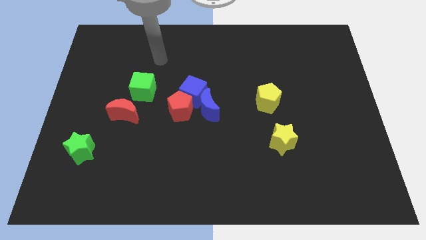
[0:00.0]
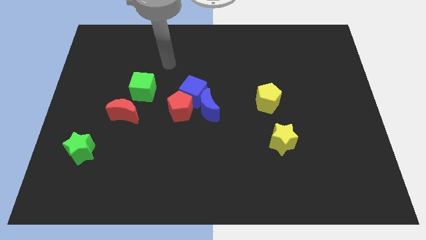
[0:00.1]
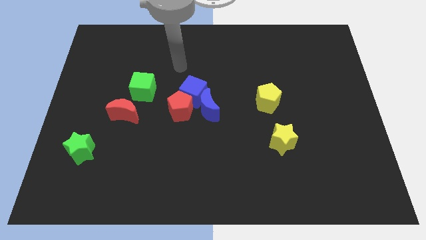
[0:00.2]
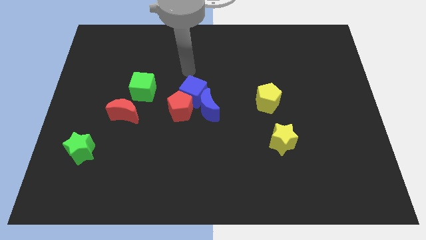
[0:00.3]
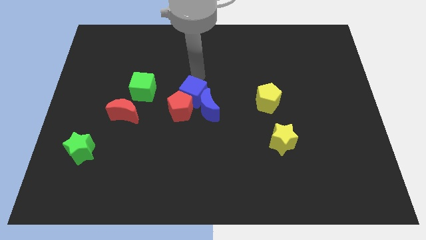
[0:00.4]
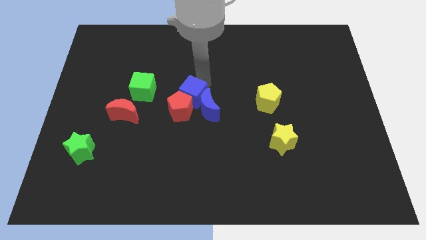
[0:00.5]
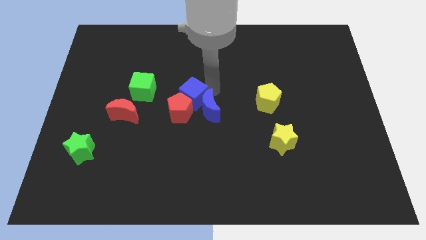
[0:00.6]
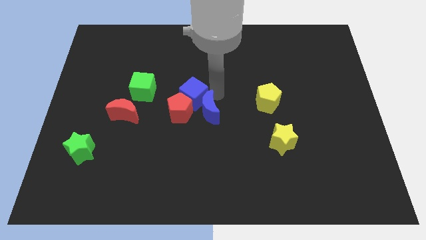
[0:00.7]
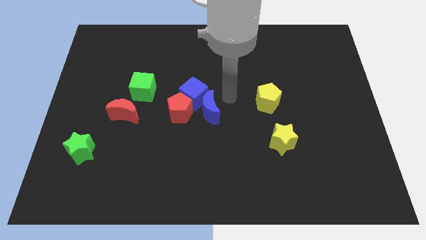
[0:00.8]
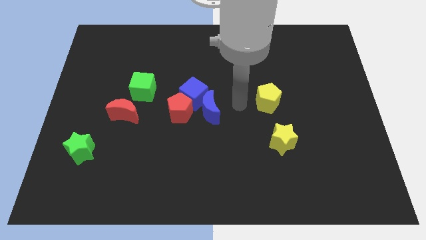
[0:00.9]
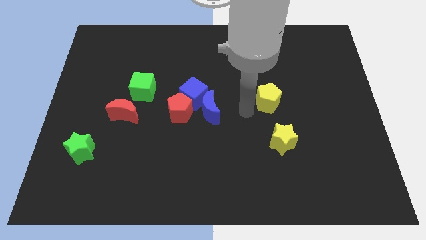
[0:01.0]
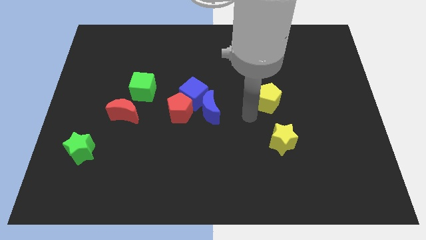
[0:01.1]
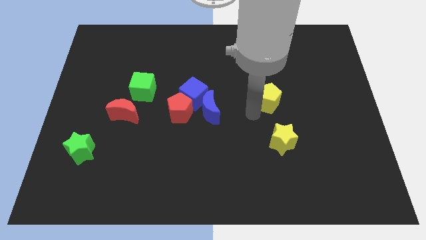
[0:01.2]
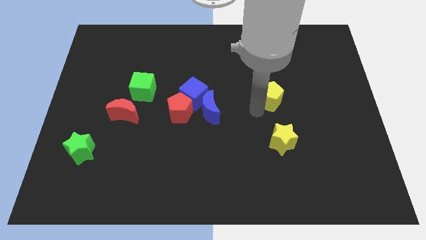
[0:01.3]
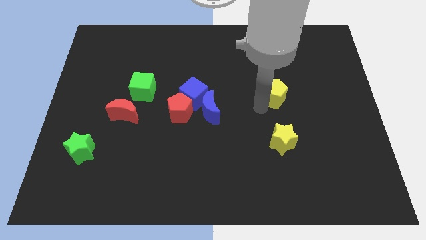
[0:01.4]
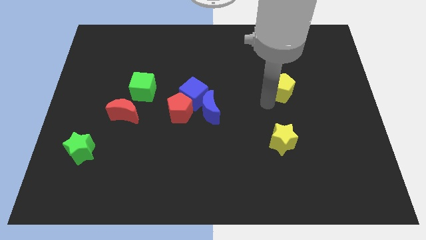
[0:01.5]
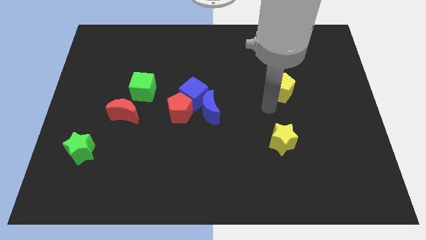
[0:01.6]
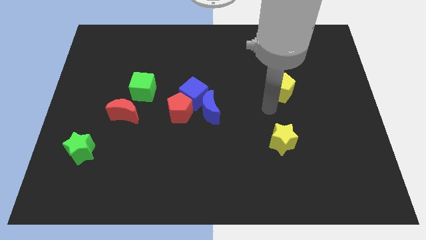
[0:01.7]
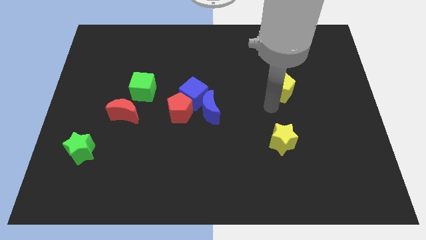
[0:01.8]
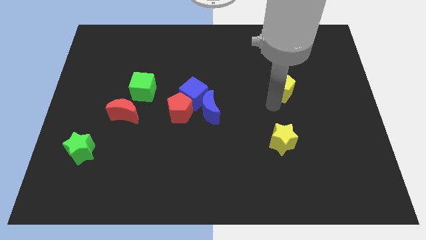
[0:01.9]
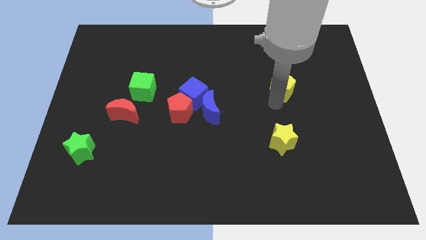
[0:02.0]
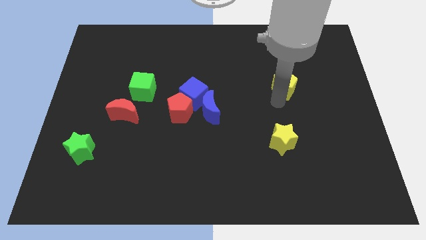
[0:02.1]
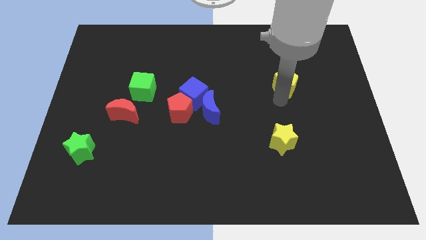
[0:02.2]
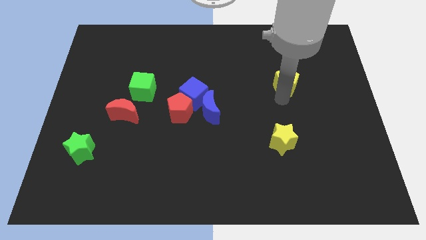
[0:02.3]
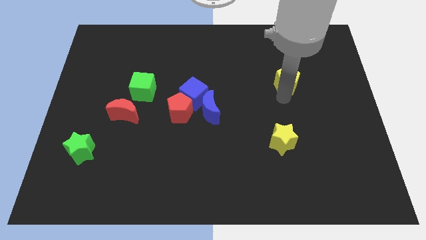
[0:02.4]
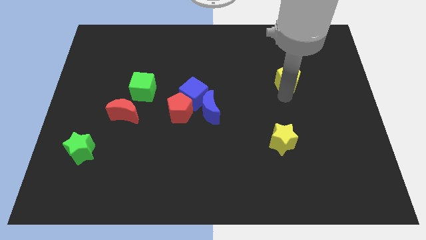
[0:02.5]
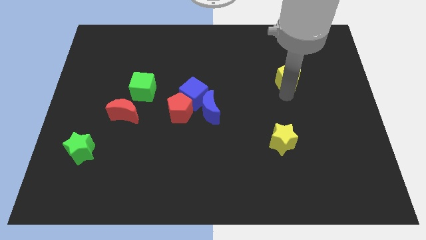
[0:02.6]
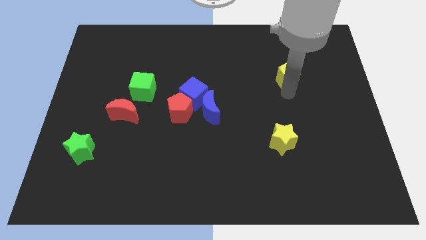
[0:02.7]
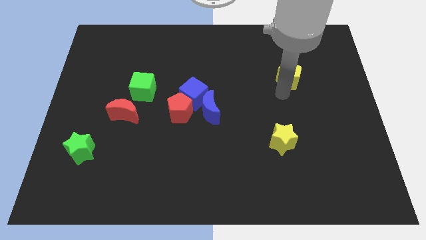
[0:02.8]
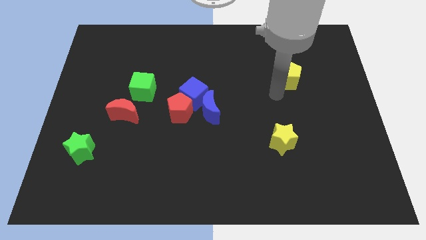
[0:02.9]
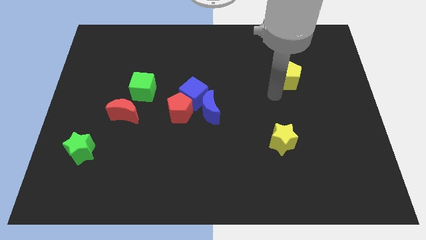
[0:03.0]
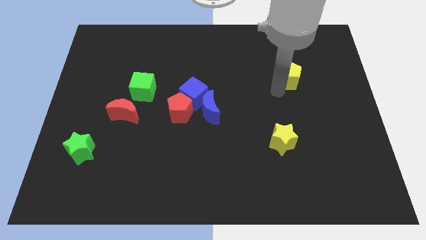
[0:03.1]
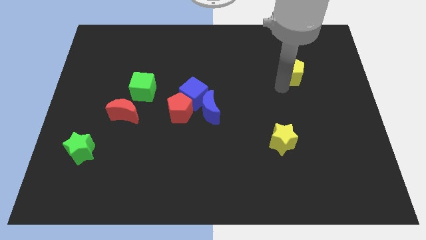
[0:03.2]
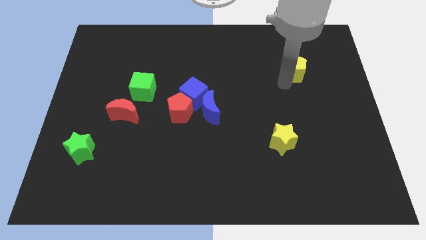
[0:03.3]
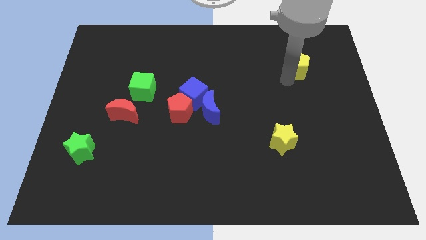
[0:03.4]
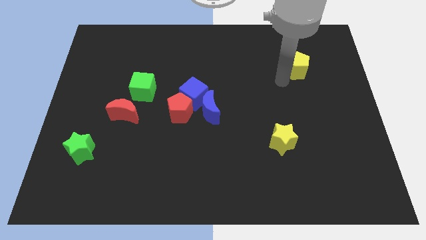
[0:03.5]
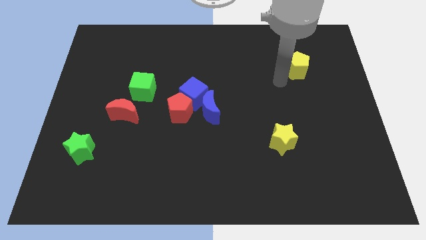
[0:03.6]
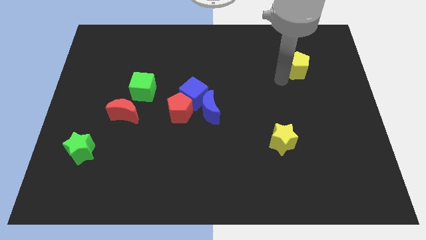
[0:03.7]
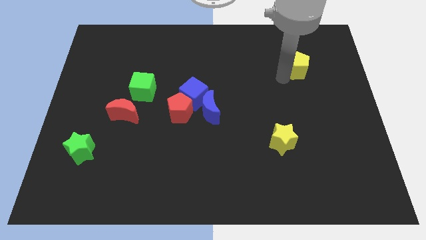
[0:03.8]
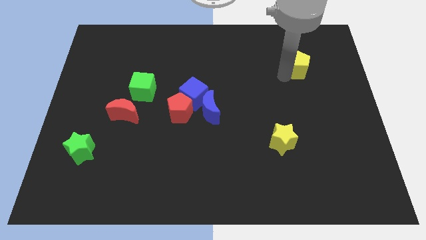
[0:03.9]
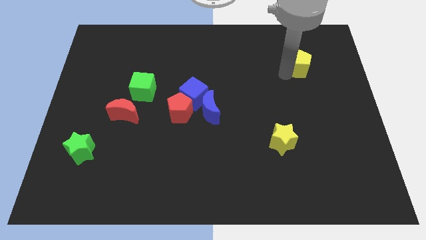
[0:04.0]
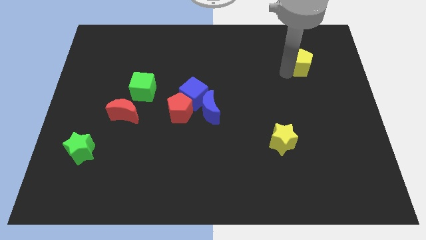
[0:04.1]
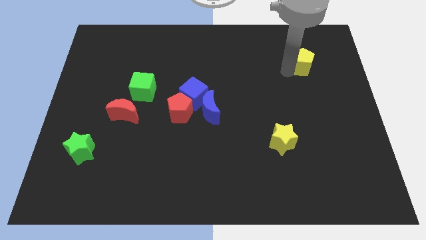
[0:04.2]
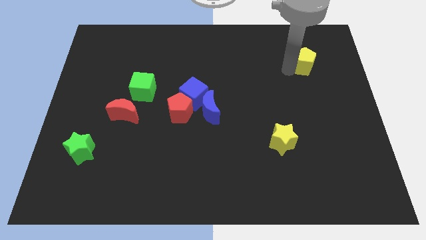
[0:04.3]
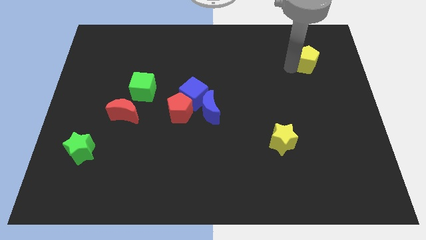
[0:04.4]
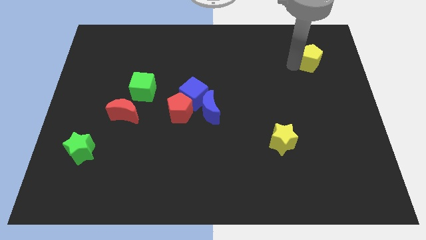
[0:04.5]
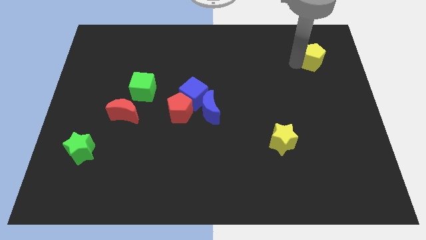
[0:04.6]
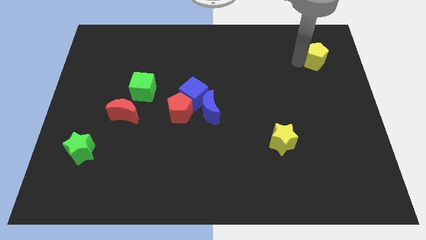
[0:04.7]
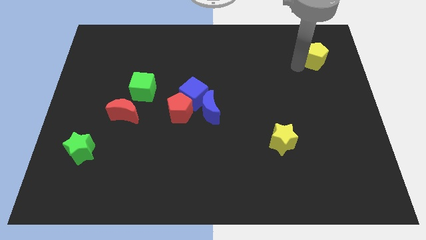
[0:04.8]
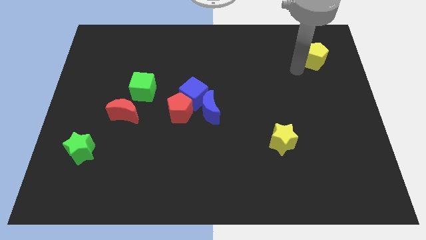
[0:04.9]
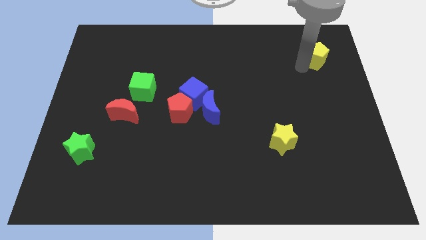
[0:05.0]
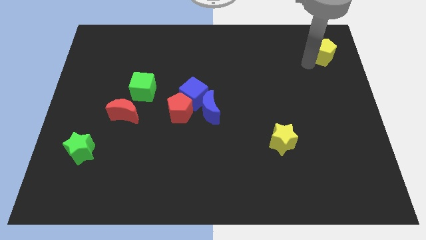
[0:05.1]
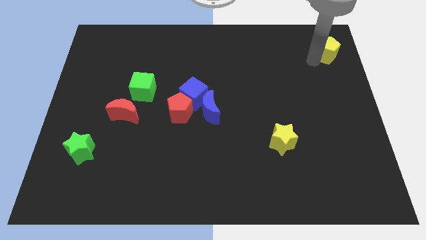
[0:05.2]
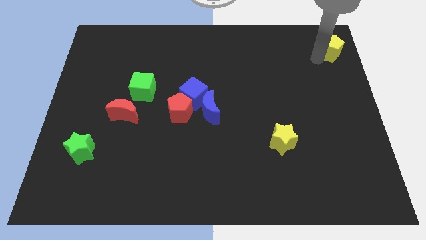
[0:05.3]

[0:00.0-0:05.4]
move the yellow pentagon to the top right of the board
